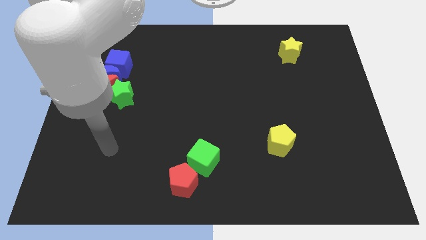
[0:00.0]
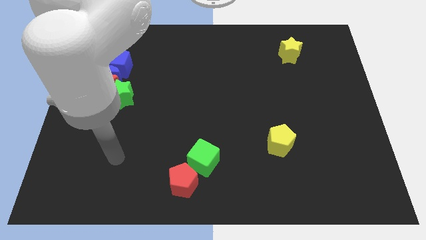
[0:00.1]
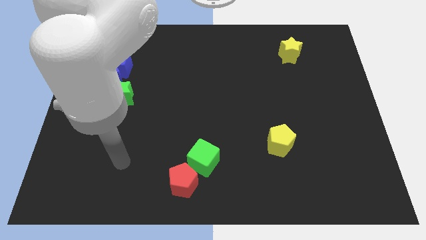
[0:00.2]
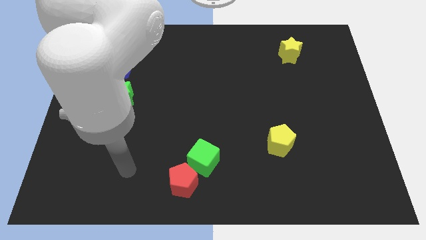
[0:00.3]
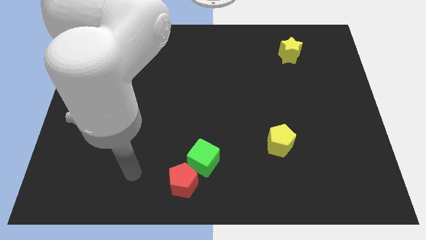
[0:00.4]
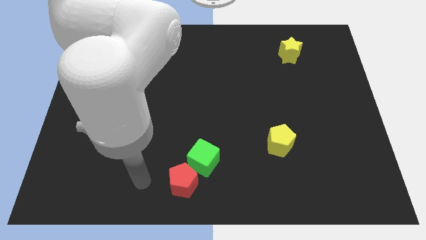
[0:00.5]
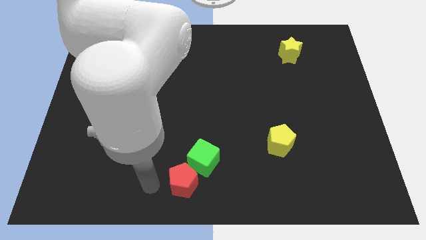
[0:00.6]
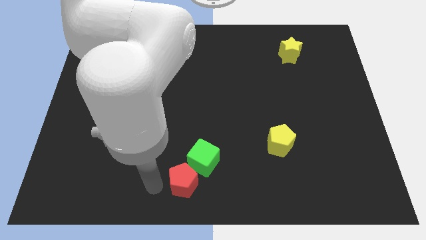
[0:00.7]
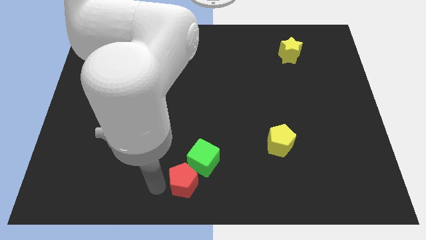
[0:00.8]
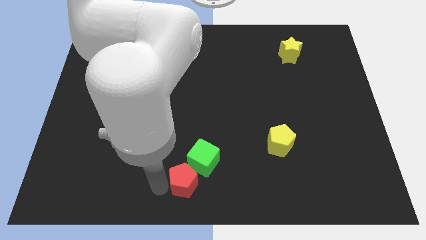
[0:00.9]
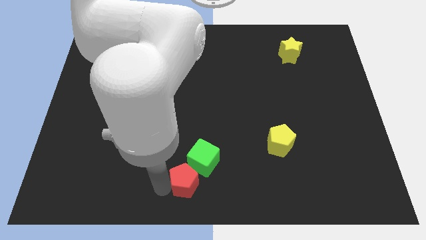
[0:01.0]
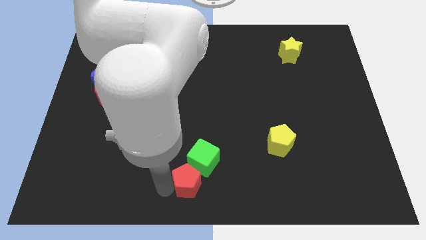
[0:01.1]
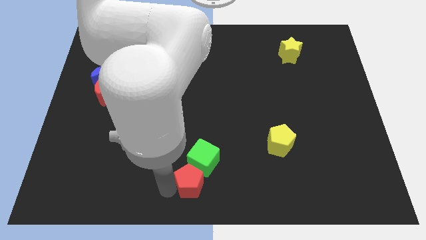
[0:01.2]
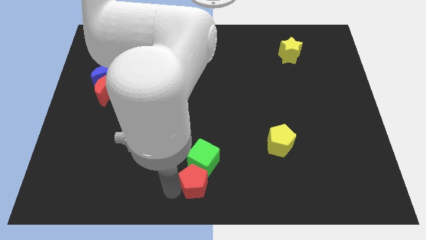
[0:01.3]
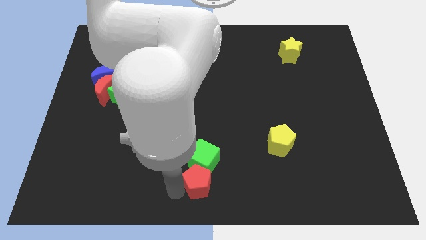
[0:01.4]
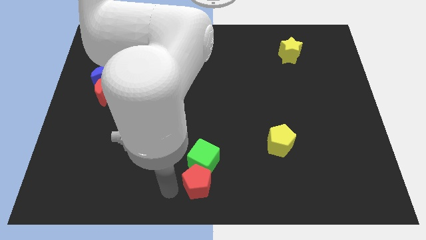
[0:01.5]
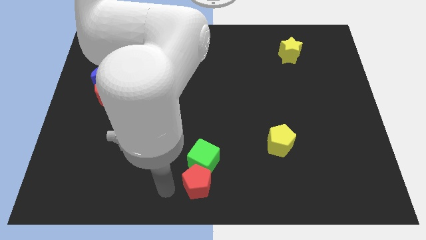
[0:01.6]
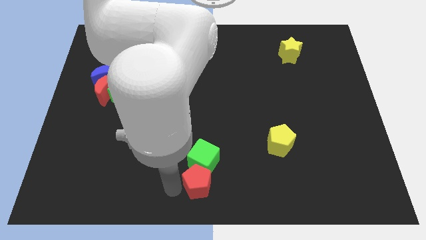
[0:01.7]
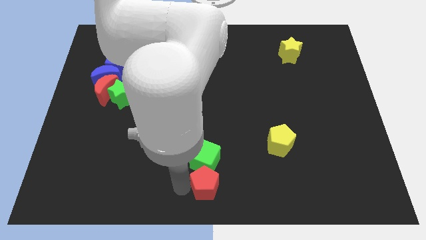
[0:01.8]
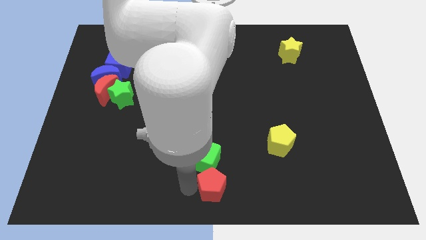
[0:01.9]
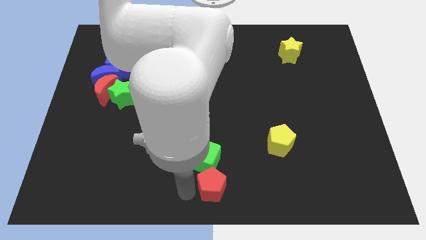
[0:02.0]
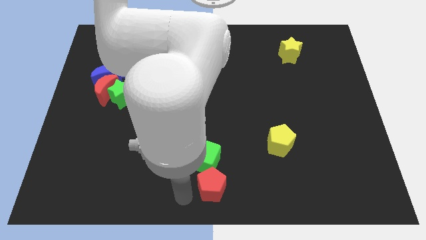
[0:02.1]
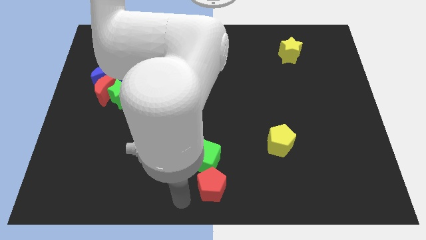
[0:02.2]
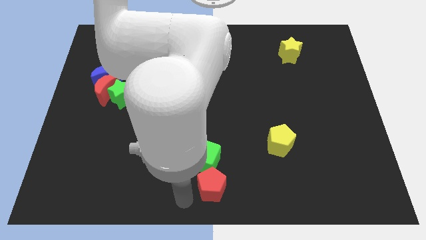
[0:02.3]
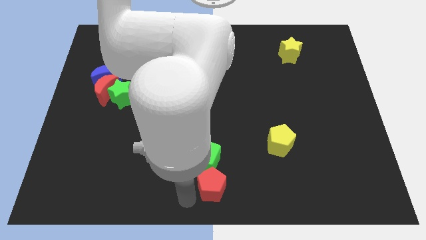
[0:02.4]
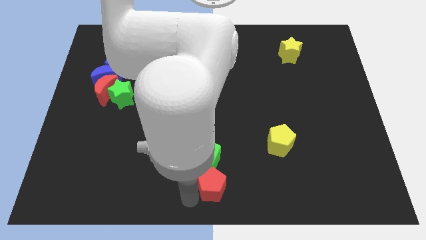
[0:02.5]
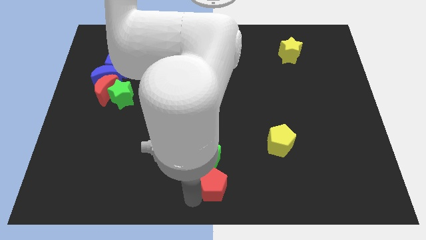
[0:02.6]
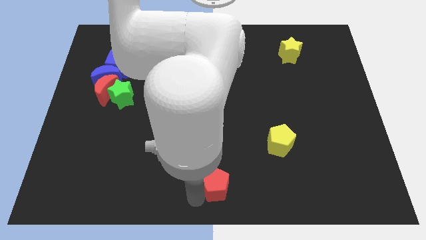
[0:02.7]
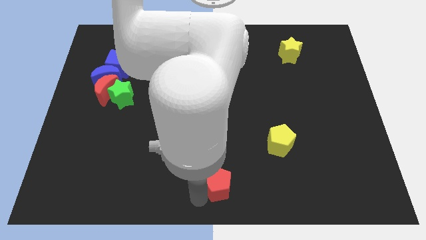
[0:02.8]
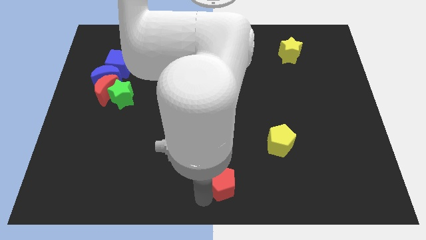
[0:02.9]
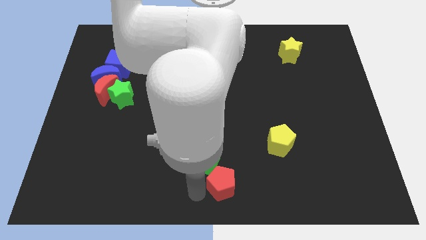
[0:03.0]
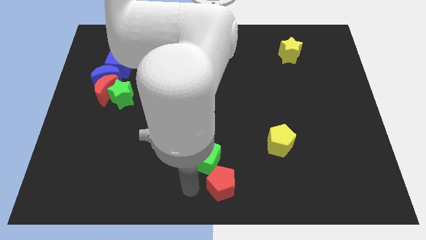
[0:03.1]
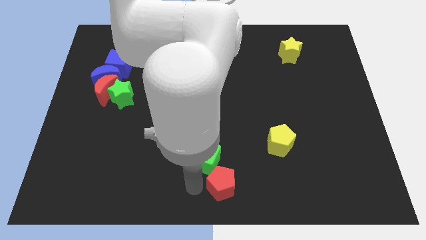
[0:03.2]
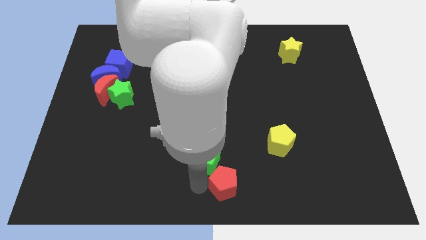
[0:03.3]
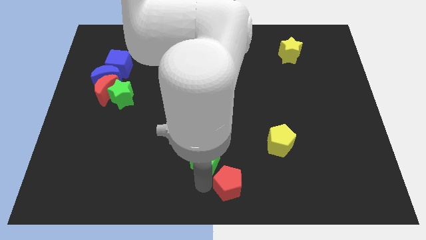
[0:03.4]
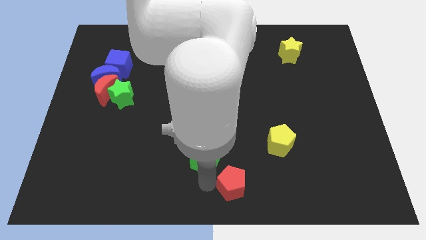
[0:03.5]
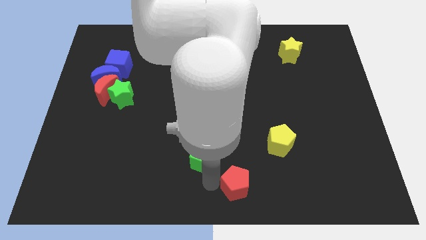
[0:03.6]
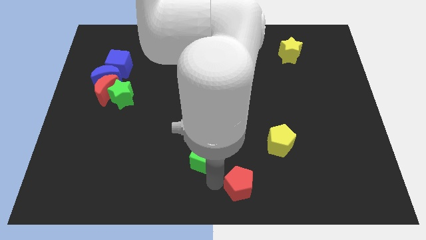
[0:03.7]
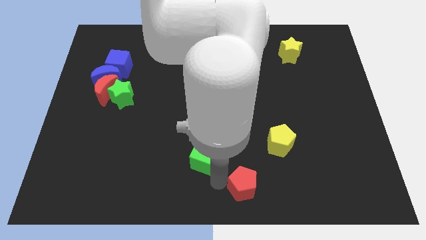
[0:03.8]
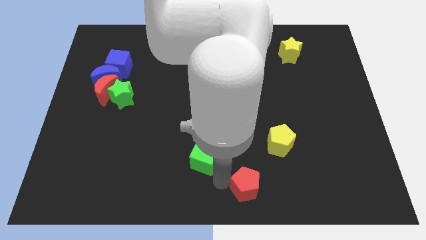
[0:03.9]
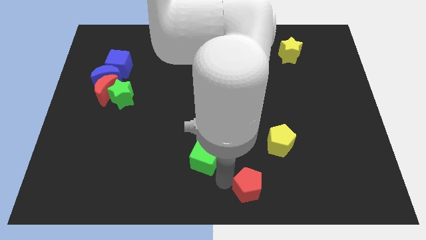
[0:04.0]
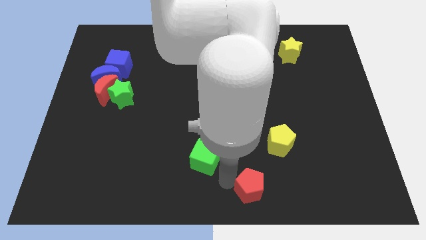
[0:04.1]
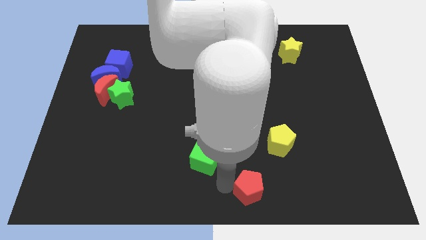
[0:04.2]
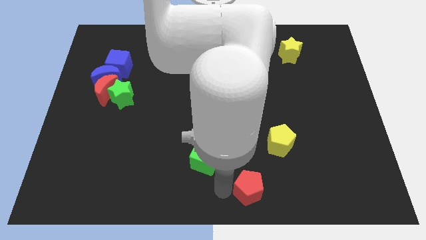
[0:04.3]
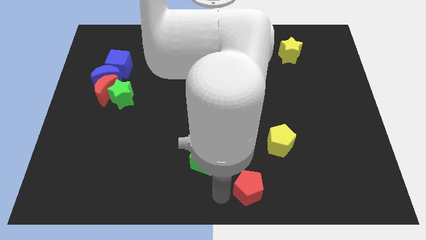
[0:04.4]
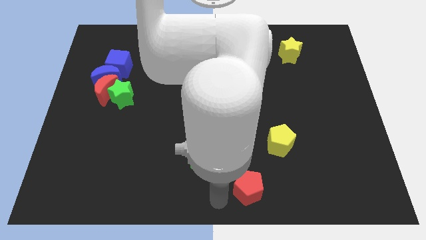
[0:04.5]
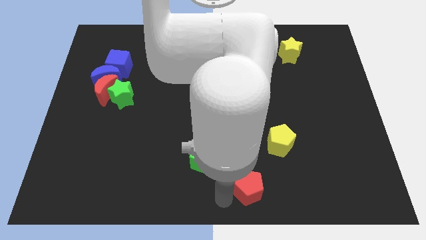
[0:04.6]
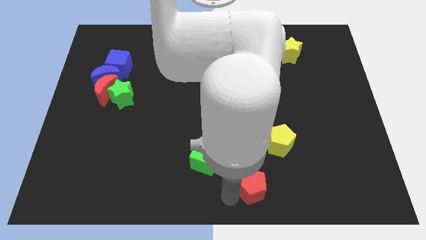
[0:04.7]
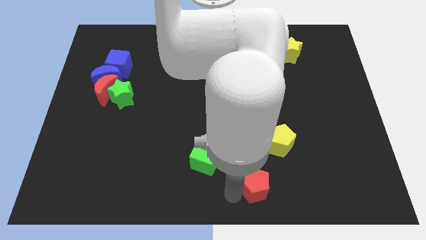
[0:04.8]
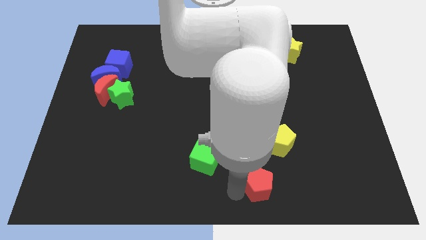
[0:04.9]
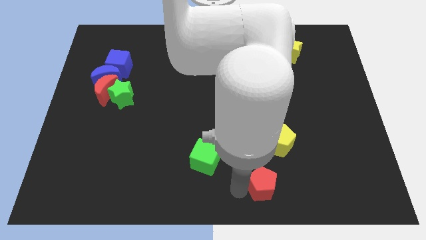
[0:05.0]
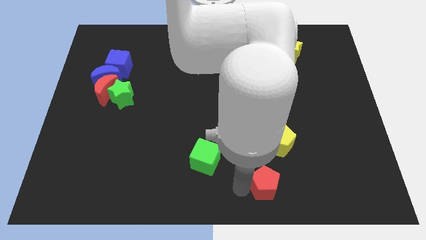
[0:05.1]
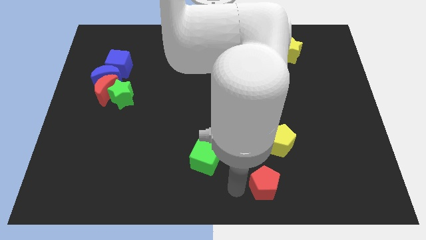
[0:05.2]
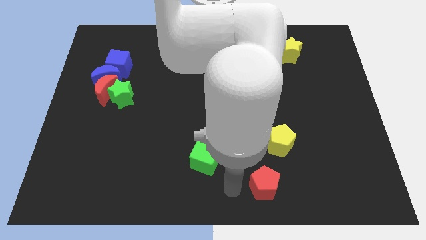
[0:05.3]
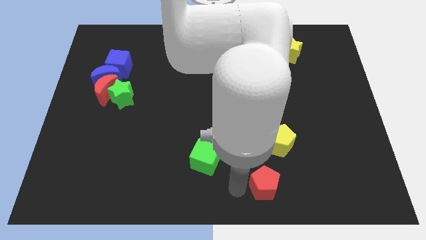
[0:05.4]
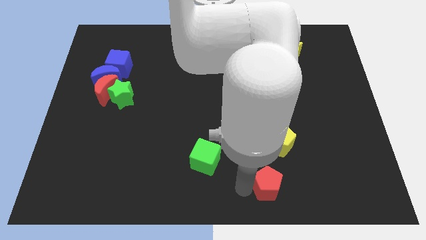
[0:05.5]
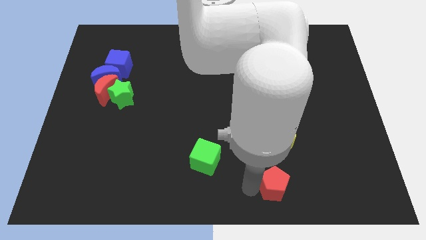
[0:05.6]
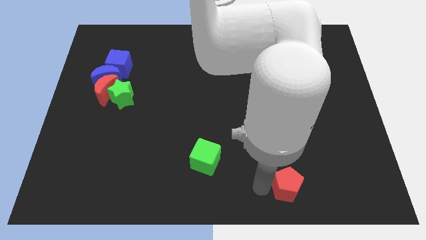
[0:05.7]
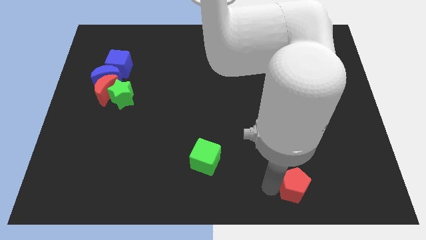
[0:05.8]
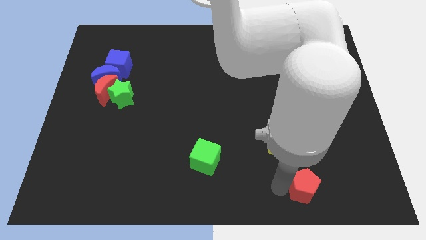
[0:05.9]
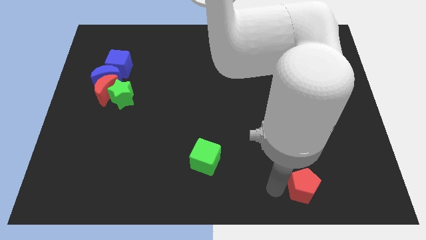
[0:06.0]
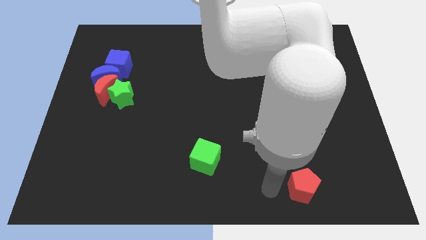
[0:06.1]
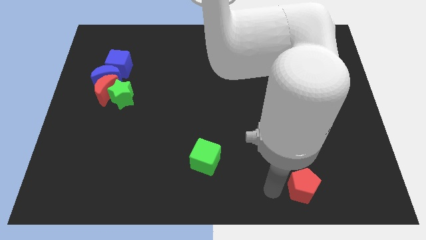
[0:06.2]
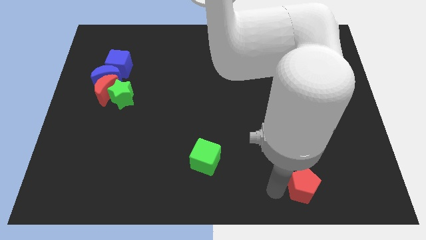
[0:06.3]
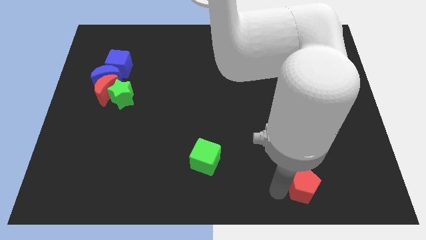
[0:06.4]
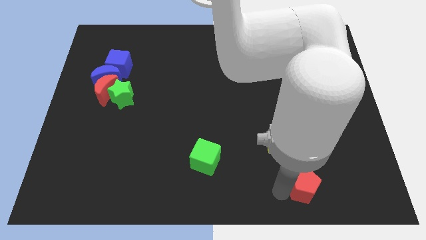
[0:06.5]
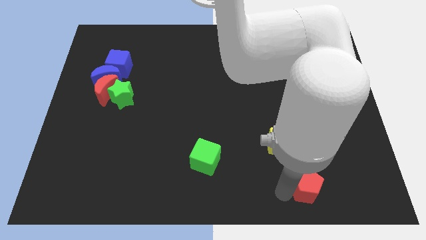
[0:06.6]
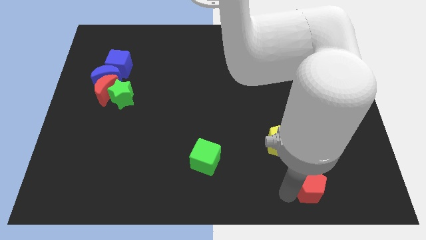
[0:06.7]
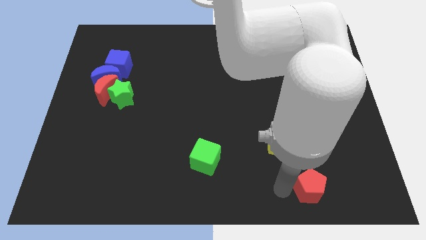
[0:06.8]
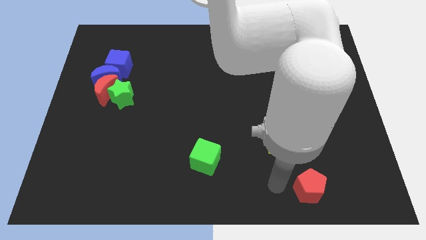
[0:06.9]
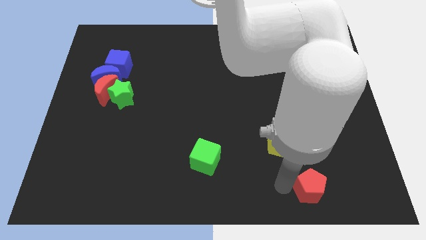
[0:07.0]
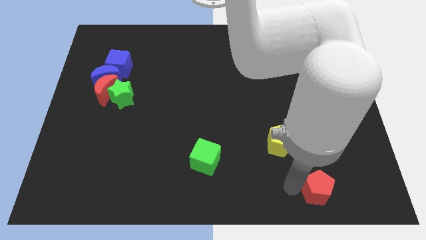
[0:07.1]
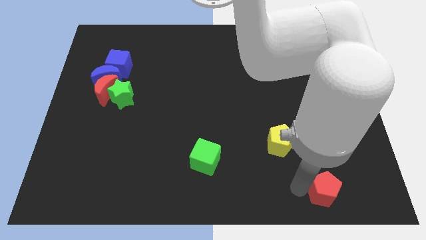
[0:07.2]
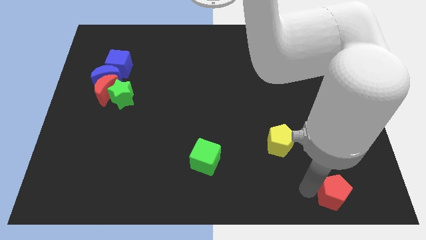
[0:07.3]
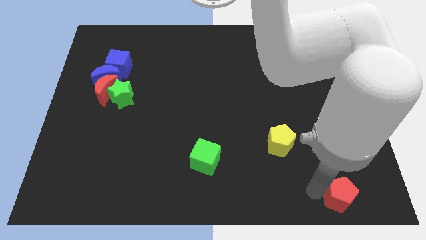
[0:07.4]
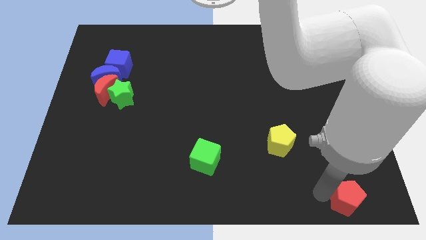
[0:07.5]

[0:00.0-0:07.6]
put the red pentagon to the bottom right corner
